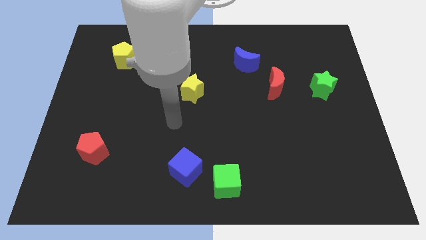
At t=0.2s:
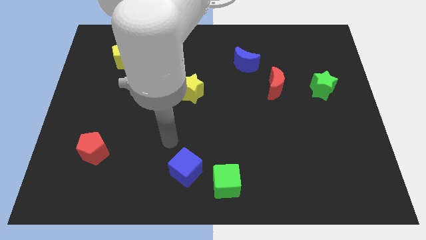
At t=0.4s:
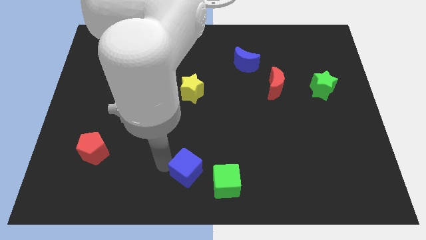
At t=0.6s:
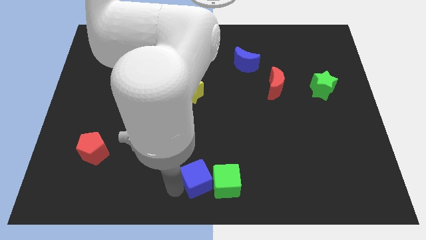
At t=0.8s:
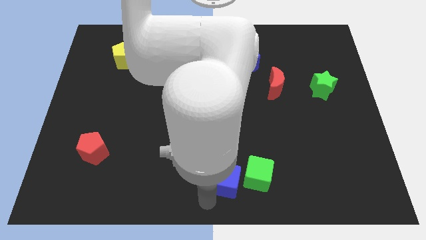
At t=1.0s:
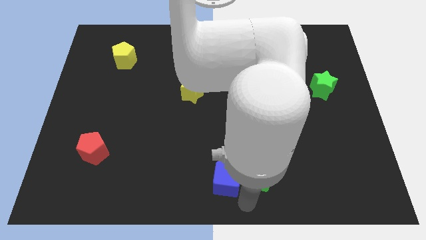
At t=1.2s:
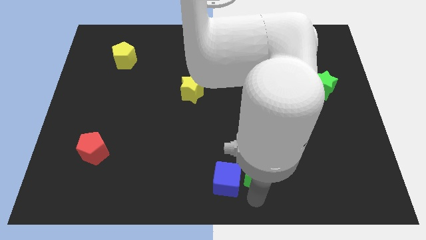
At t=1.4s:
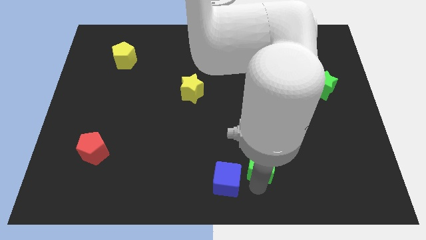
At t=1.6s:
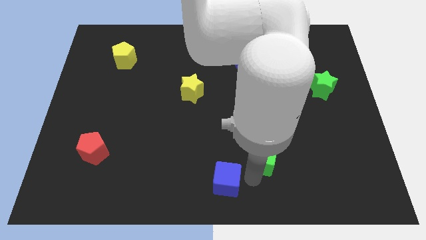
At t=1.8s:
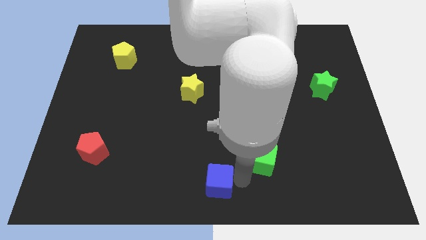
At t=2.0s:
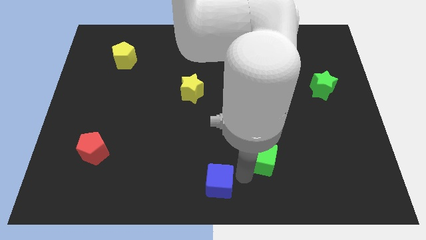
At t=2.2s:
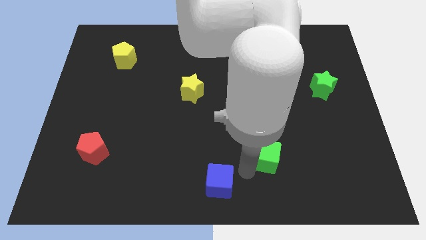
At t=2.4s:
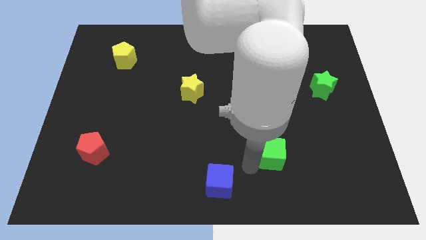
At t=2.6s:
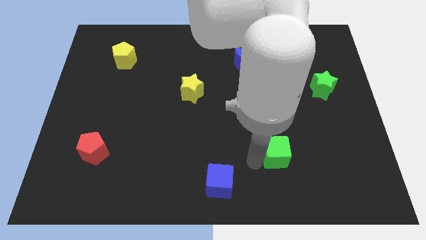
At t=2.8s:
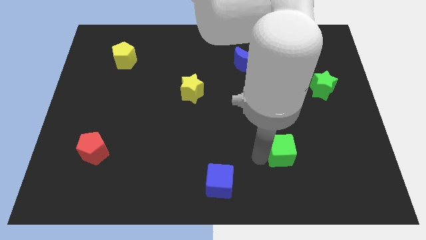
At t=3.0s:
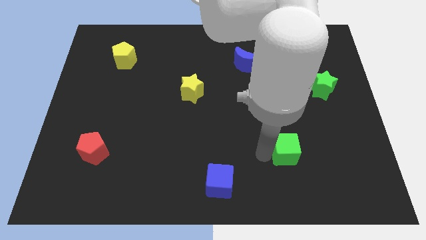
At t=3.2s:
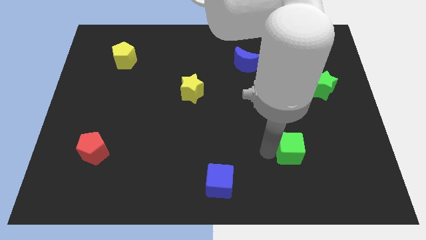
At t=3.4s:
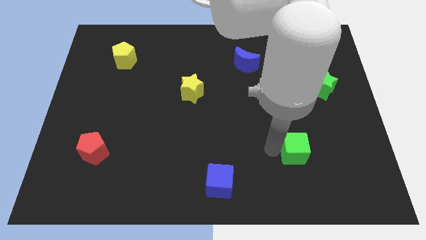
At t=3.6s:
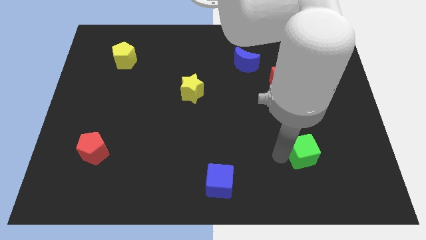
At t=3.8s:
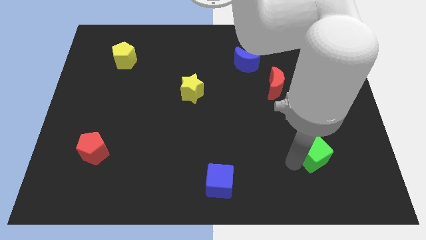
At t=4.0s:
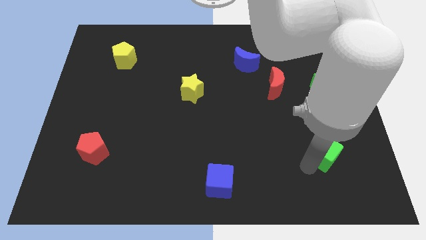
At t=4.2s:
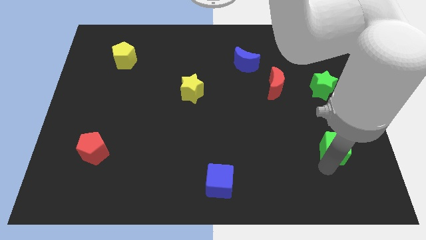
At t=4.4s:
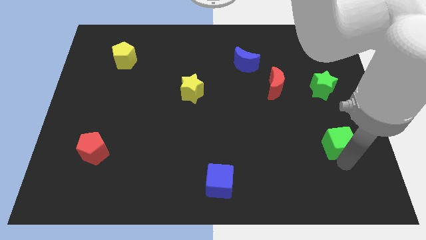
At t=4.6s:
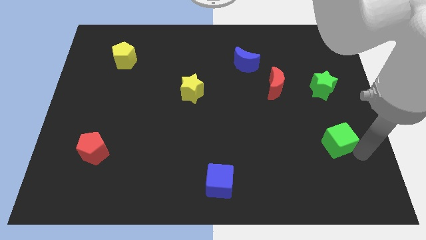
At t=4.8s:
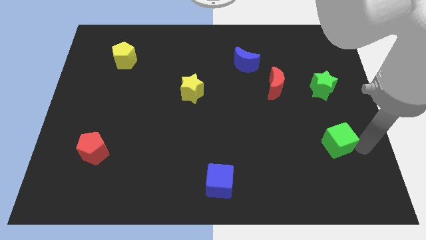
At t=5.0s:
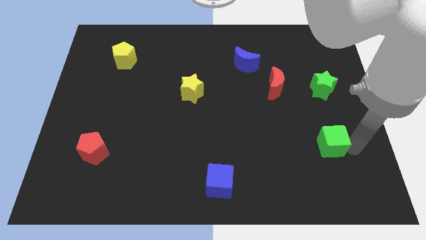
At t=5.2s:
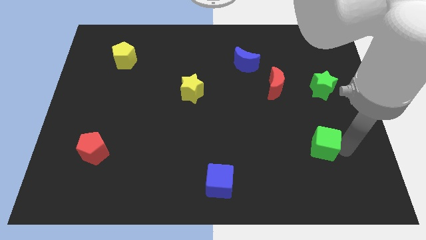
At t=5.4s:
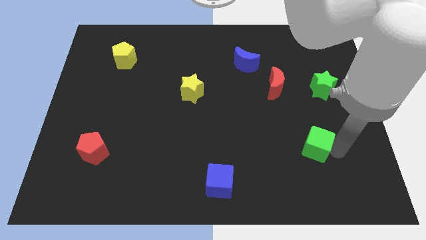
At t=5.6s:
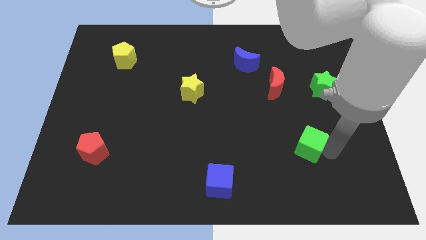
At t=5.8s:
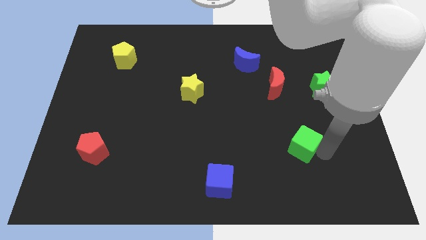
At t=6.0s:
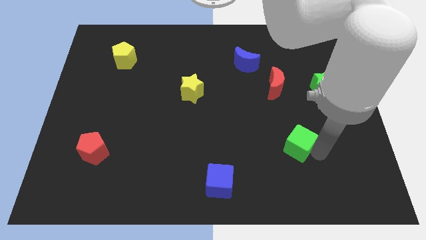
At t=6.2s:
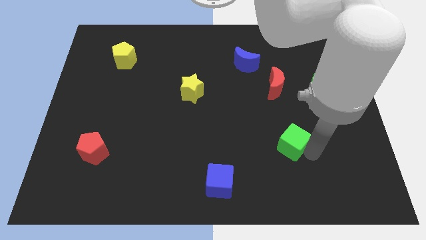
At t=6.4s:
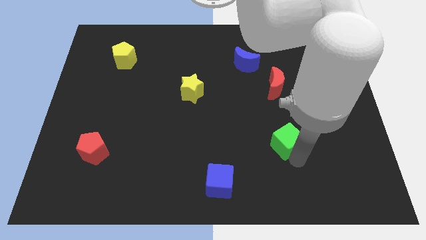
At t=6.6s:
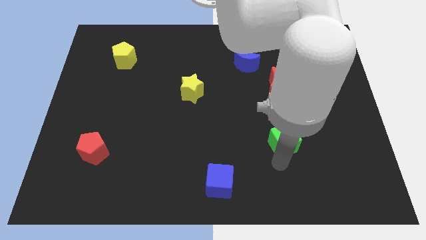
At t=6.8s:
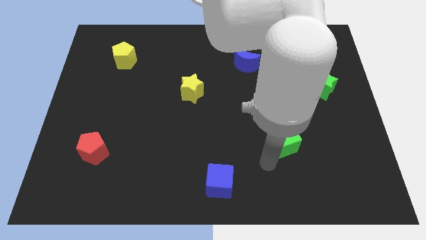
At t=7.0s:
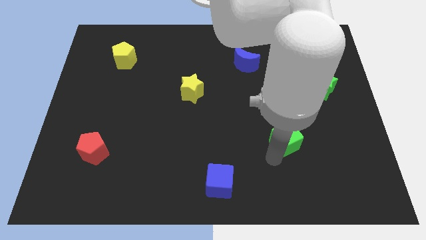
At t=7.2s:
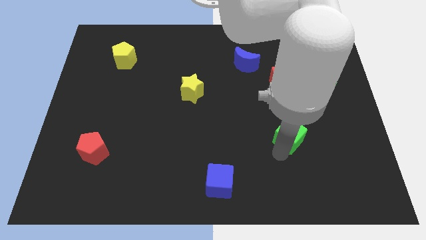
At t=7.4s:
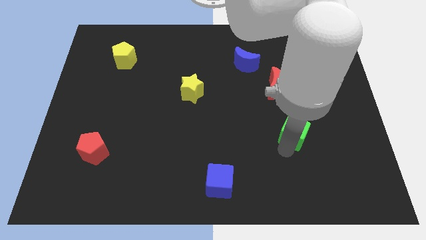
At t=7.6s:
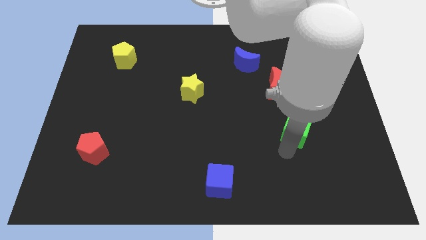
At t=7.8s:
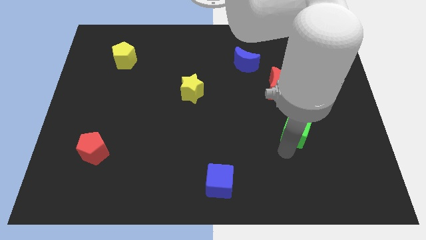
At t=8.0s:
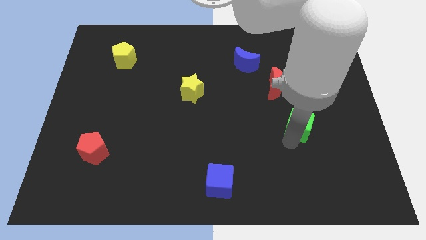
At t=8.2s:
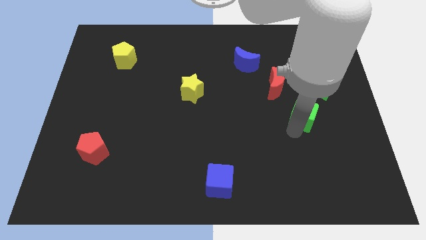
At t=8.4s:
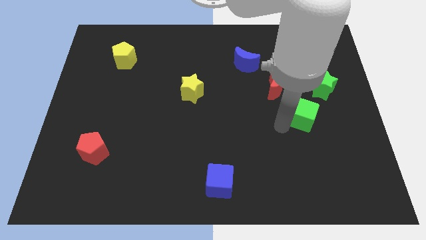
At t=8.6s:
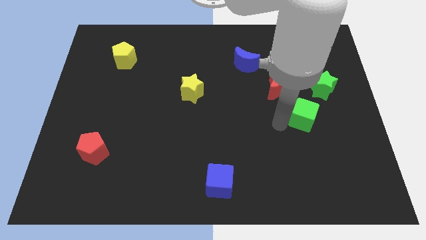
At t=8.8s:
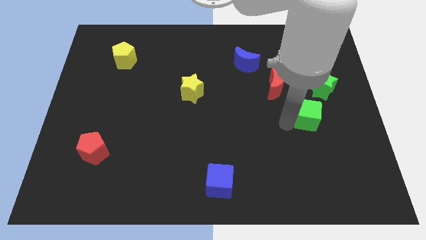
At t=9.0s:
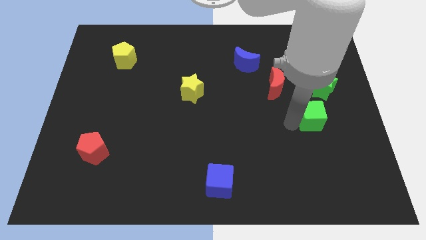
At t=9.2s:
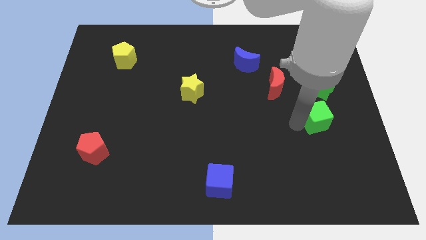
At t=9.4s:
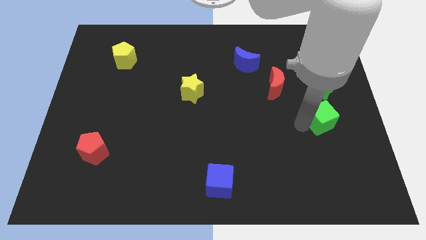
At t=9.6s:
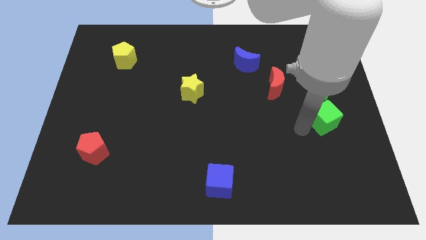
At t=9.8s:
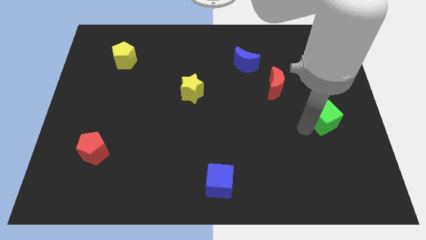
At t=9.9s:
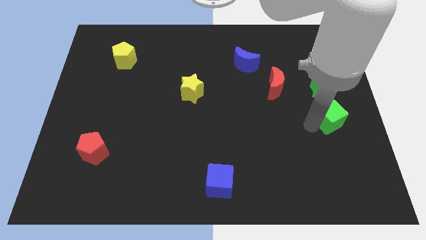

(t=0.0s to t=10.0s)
put the green cube to the center right

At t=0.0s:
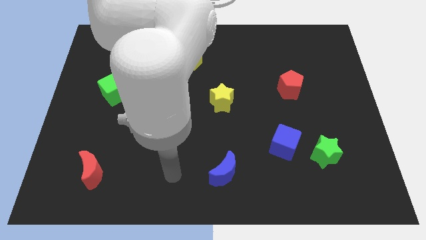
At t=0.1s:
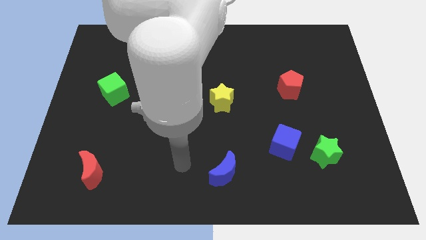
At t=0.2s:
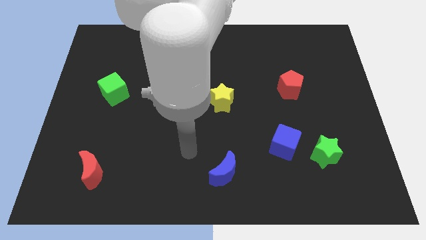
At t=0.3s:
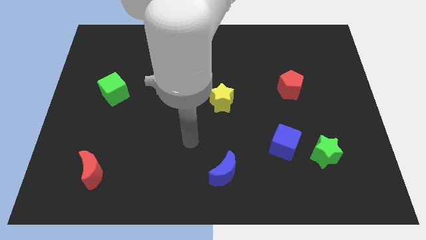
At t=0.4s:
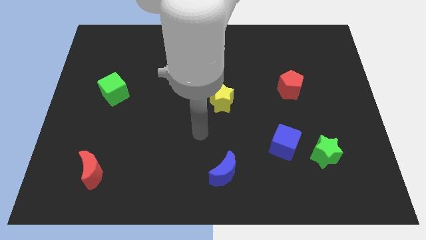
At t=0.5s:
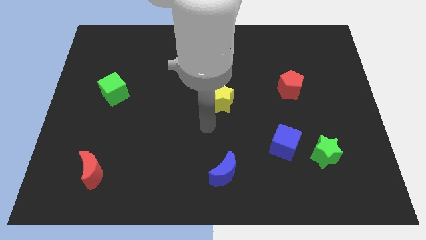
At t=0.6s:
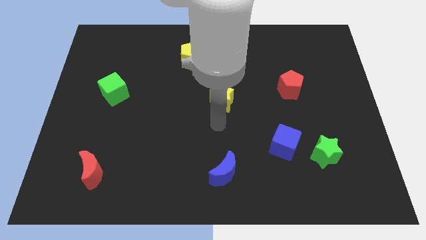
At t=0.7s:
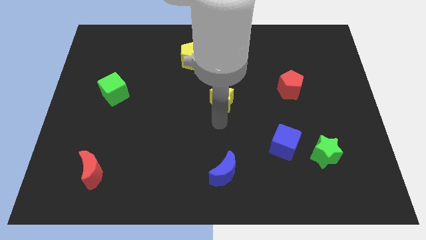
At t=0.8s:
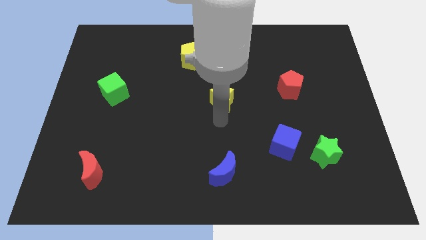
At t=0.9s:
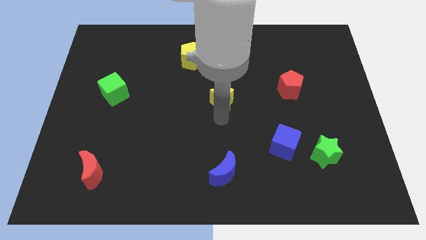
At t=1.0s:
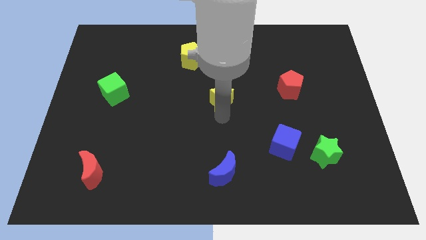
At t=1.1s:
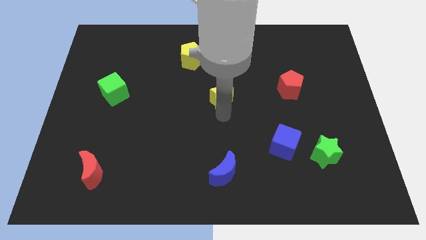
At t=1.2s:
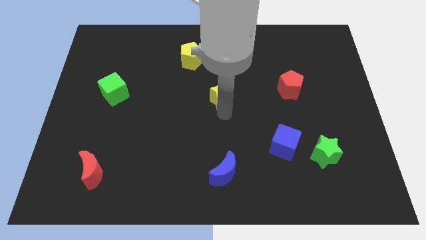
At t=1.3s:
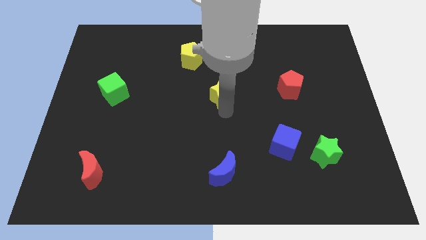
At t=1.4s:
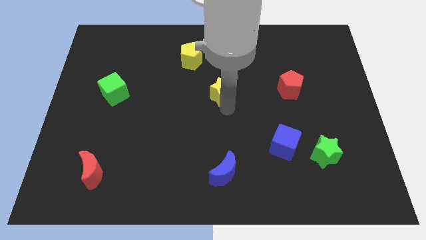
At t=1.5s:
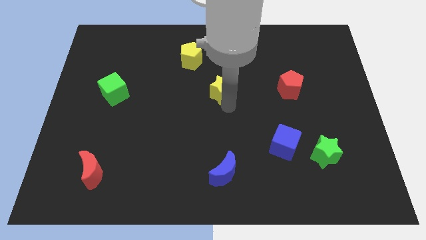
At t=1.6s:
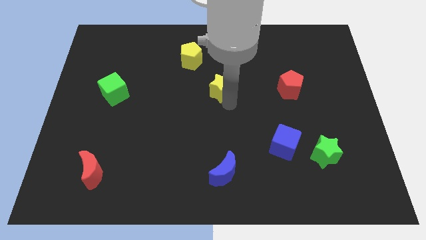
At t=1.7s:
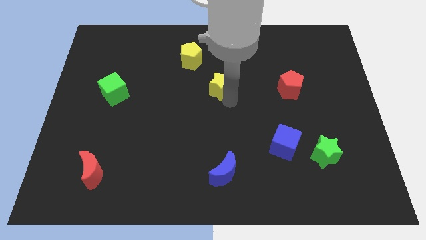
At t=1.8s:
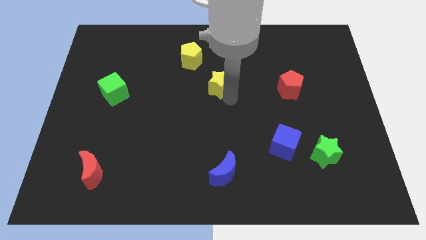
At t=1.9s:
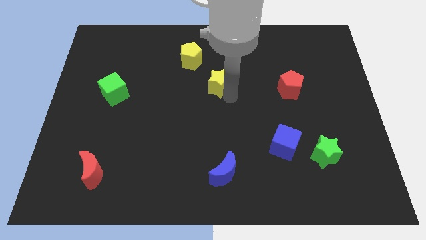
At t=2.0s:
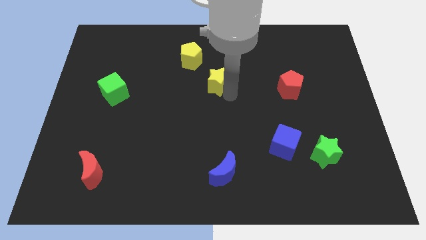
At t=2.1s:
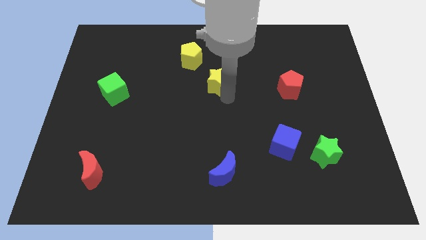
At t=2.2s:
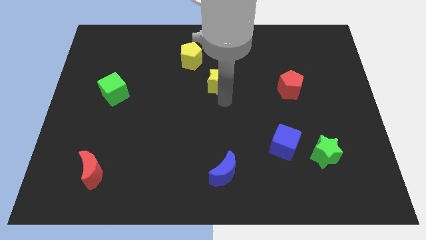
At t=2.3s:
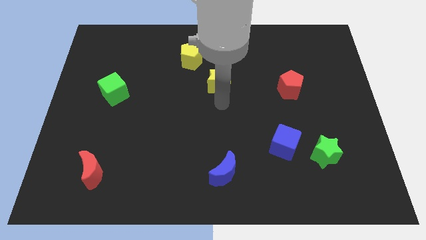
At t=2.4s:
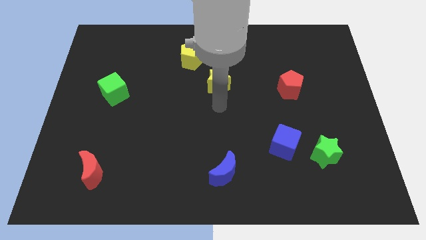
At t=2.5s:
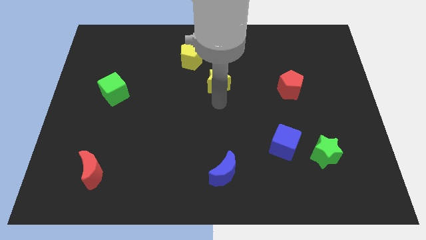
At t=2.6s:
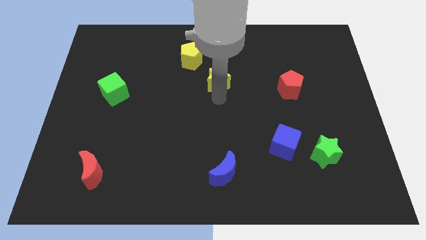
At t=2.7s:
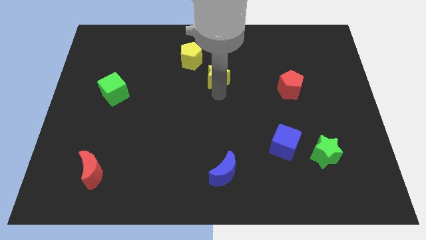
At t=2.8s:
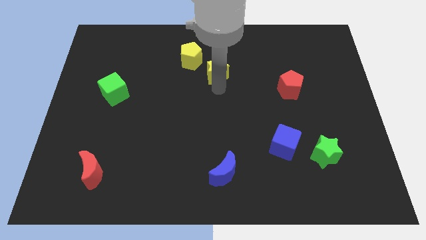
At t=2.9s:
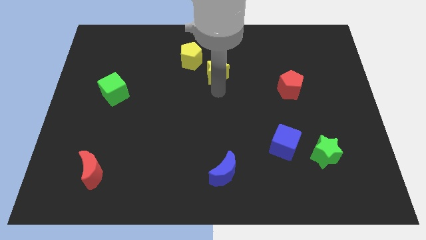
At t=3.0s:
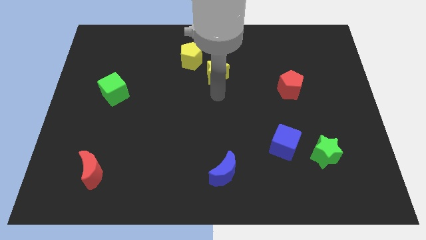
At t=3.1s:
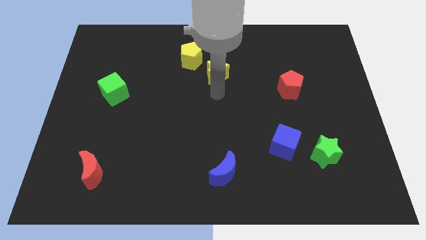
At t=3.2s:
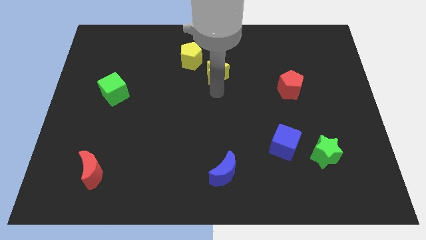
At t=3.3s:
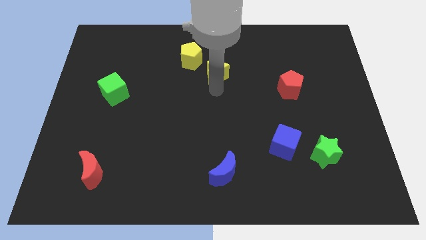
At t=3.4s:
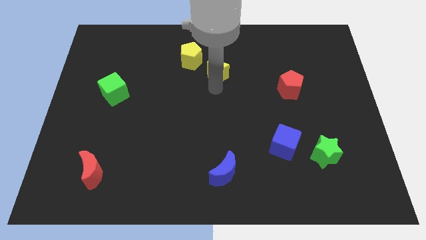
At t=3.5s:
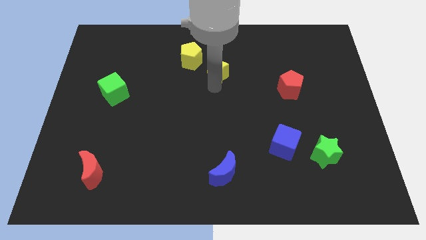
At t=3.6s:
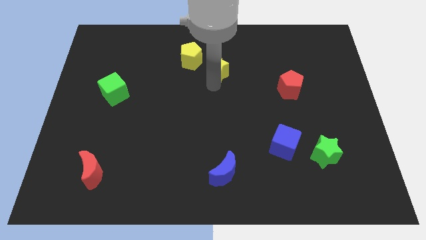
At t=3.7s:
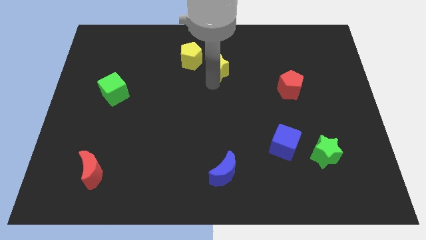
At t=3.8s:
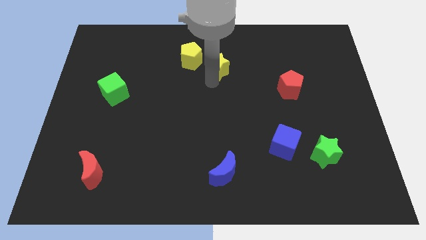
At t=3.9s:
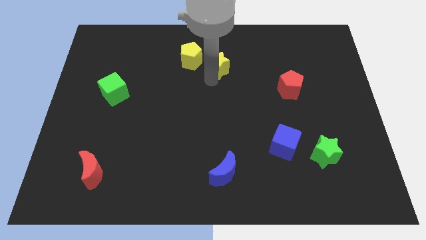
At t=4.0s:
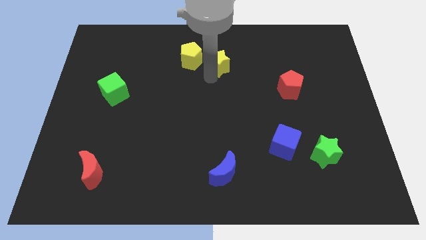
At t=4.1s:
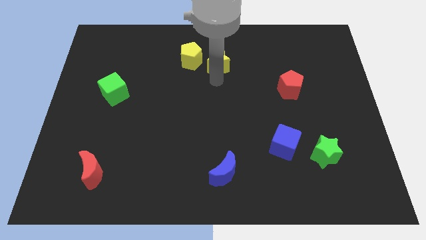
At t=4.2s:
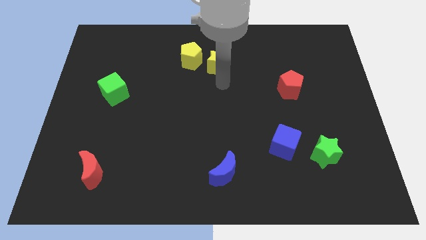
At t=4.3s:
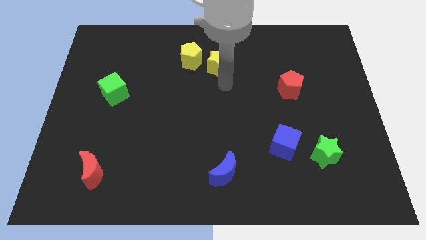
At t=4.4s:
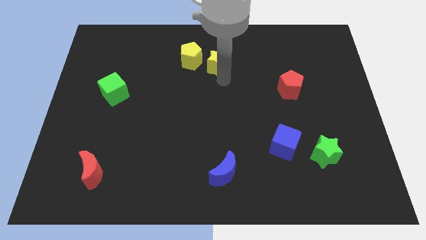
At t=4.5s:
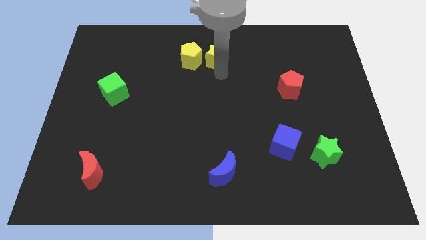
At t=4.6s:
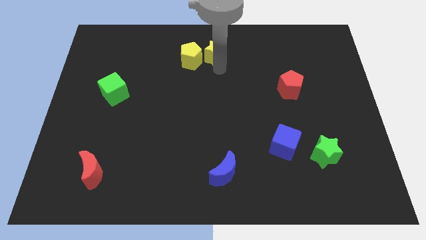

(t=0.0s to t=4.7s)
move the yellow star to the top side
